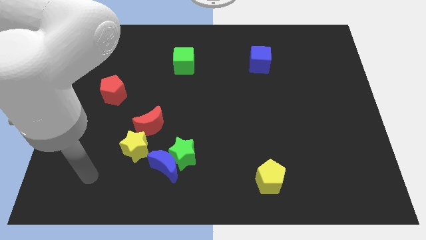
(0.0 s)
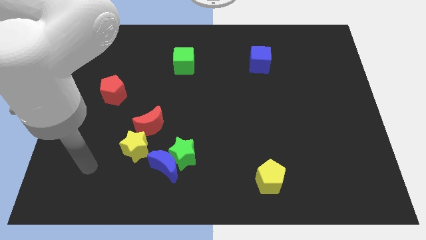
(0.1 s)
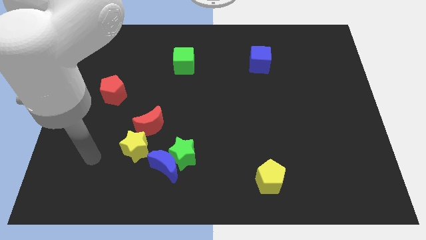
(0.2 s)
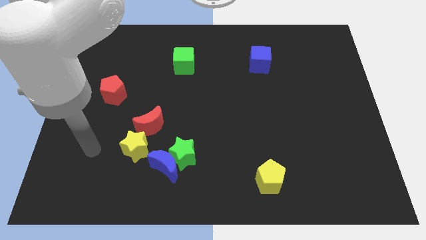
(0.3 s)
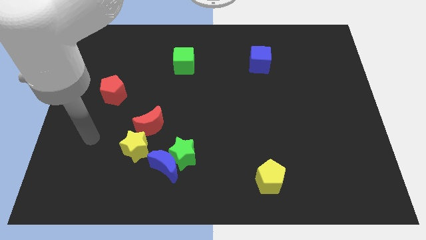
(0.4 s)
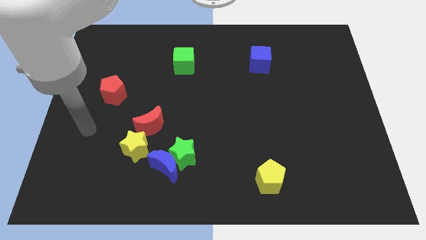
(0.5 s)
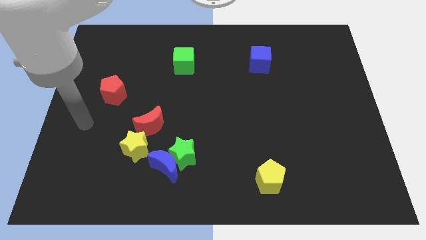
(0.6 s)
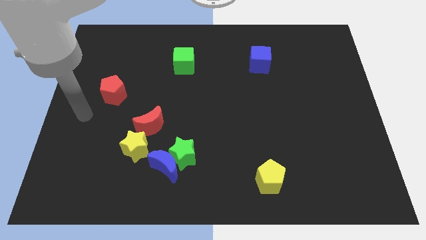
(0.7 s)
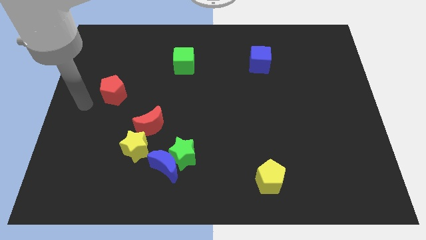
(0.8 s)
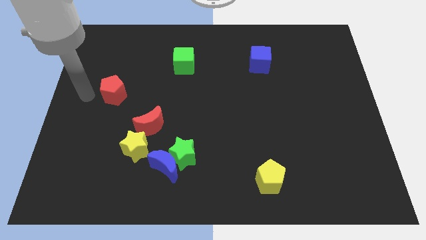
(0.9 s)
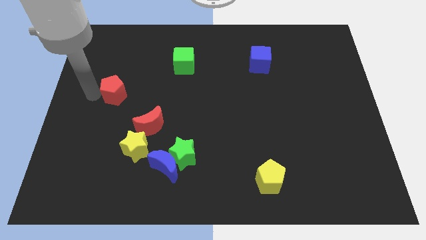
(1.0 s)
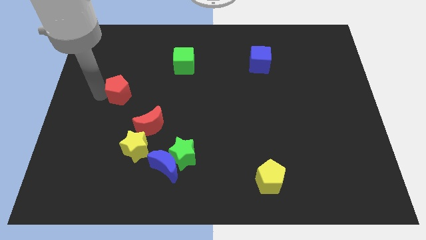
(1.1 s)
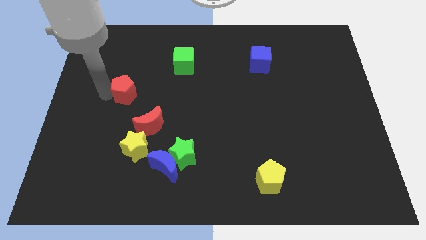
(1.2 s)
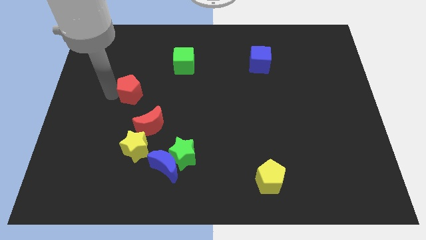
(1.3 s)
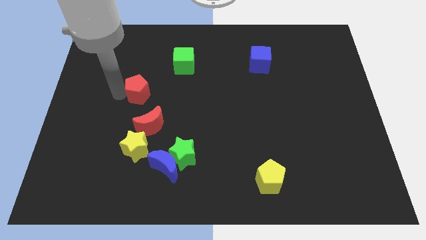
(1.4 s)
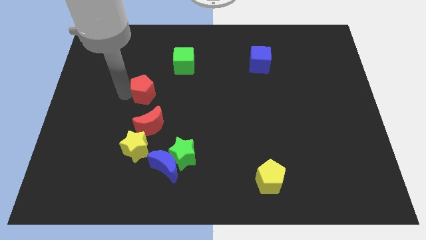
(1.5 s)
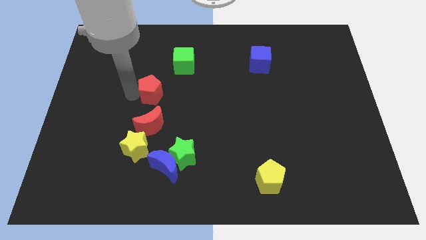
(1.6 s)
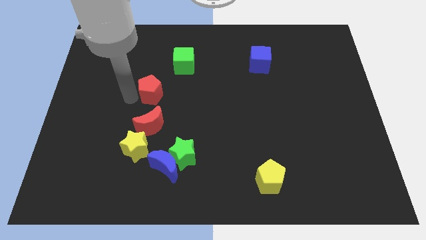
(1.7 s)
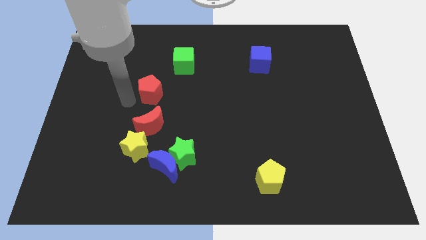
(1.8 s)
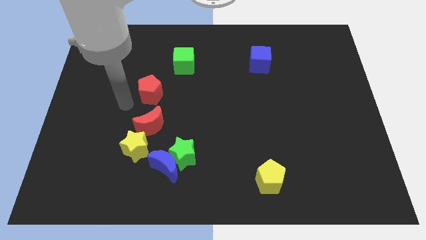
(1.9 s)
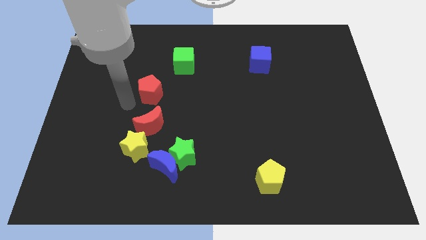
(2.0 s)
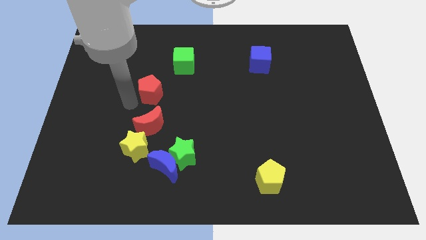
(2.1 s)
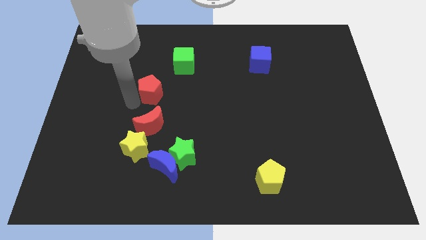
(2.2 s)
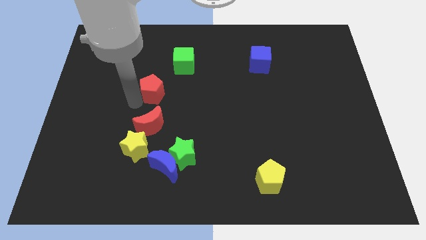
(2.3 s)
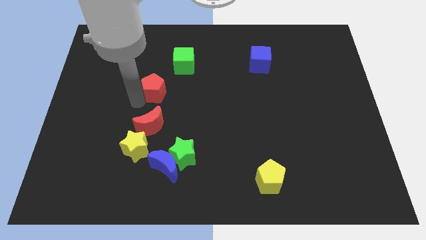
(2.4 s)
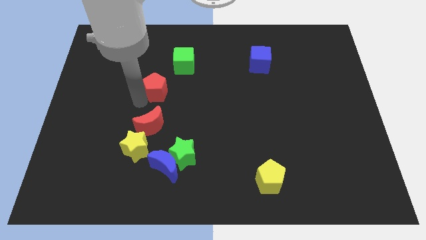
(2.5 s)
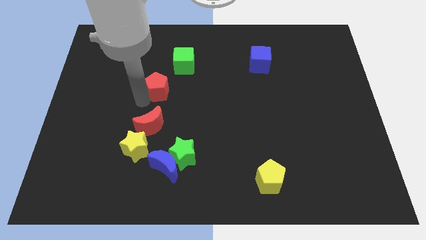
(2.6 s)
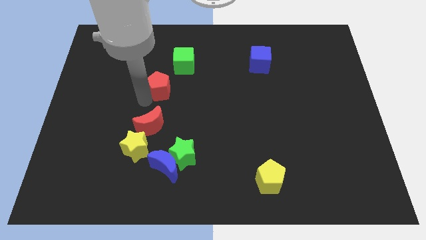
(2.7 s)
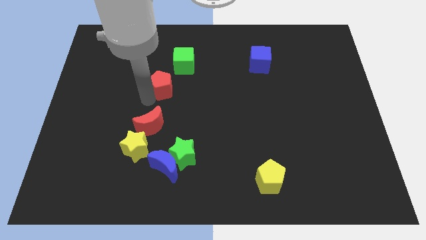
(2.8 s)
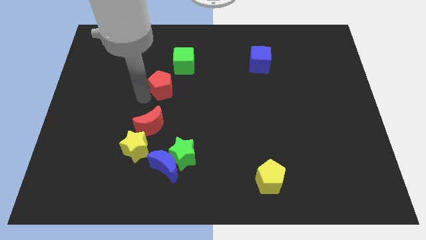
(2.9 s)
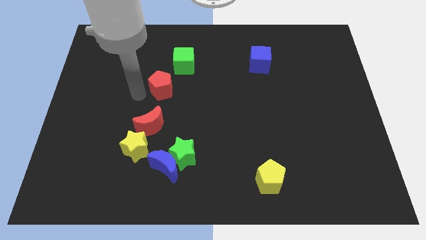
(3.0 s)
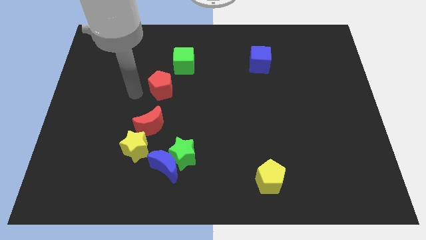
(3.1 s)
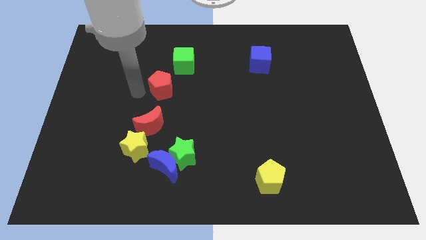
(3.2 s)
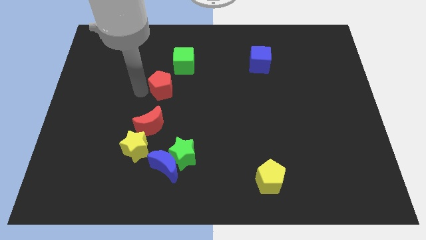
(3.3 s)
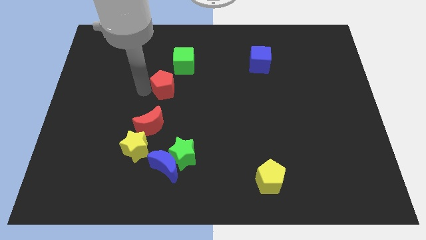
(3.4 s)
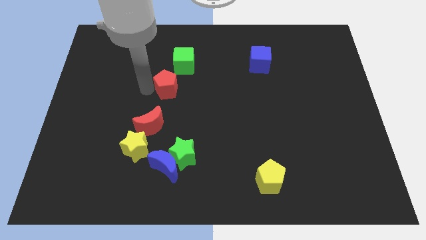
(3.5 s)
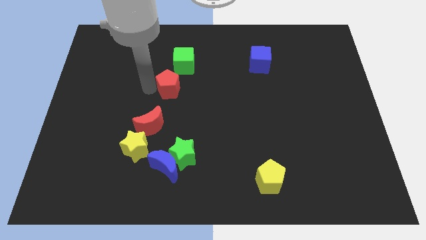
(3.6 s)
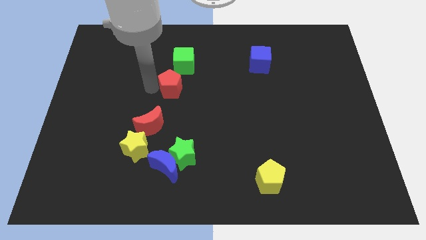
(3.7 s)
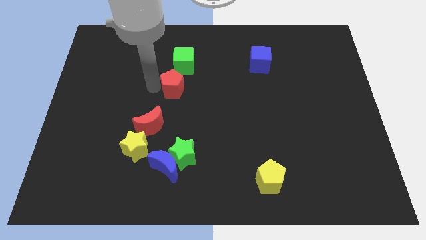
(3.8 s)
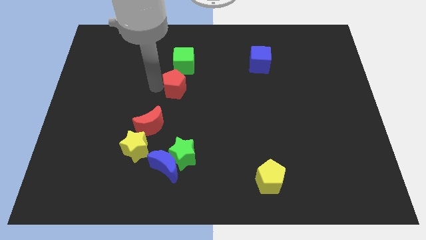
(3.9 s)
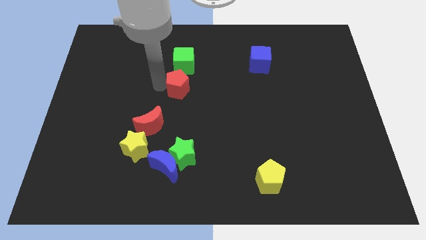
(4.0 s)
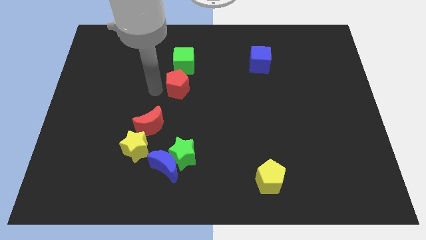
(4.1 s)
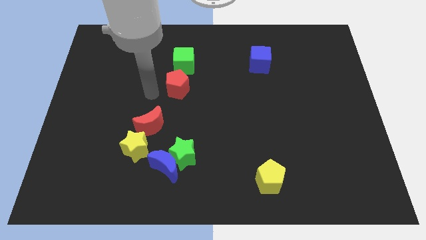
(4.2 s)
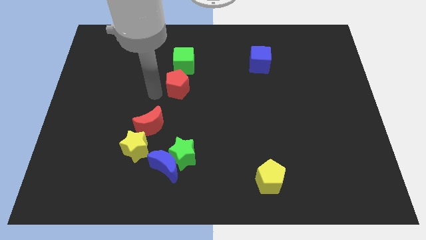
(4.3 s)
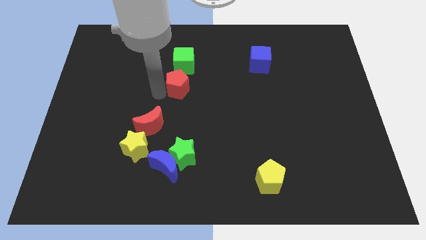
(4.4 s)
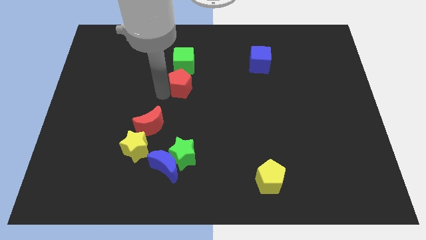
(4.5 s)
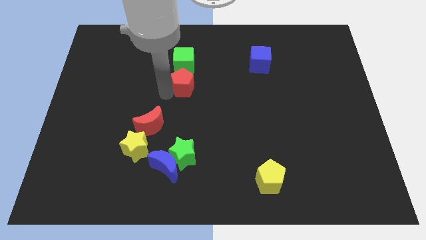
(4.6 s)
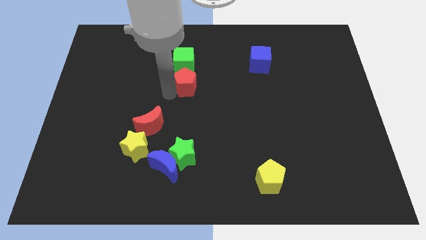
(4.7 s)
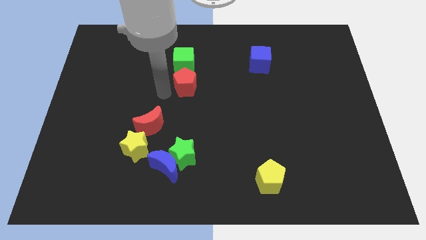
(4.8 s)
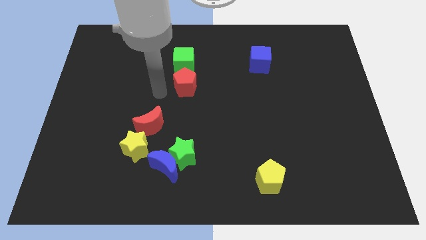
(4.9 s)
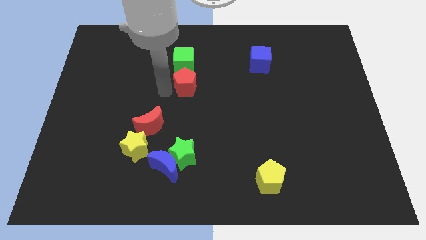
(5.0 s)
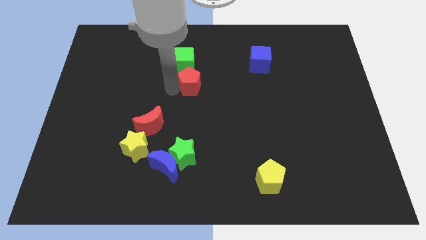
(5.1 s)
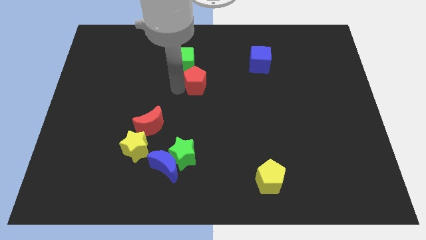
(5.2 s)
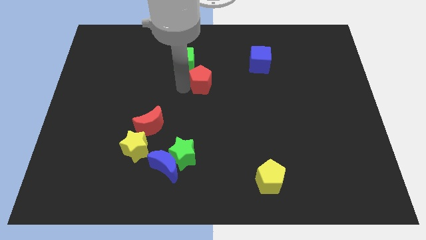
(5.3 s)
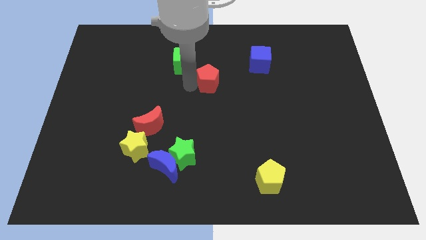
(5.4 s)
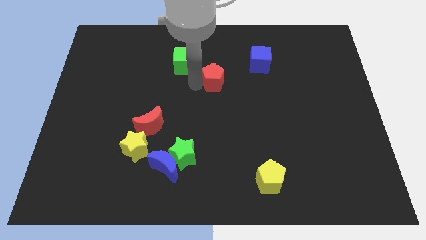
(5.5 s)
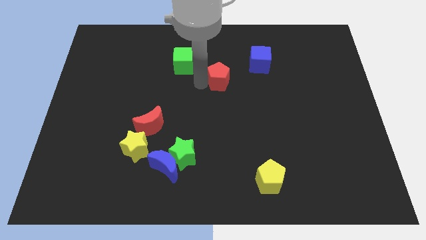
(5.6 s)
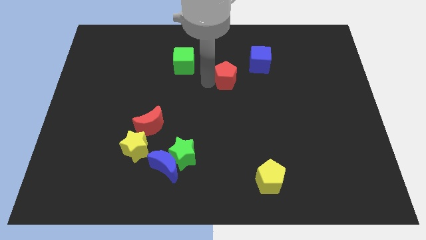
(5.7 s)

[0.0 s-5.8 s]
move the red pentagon to the bottom left of the blue cube
